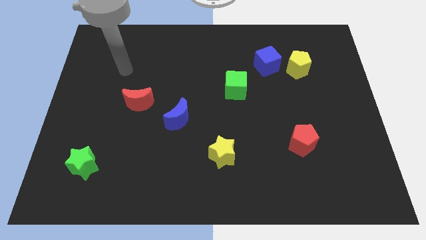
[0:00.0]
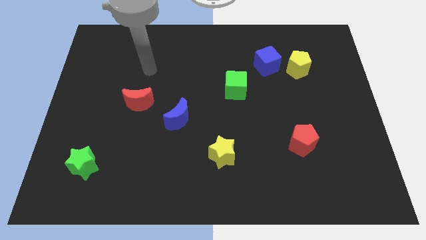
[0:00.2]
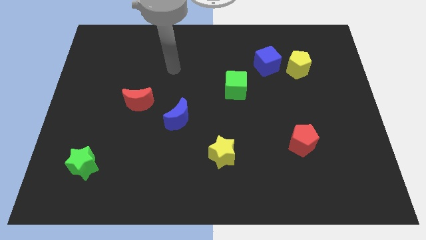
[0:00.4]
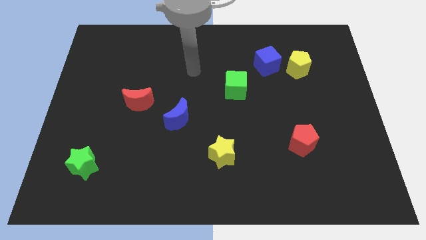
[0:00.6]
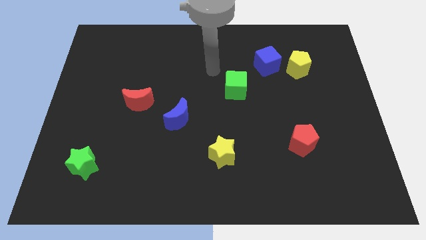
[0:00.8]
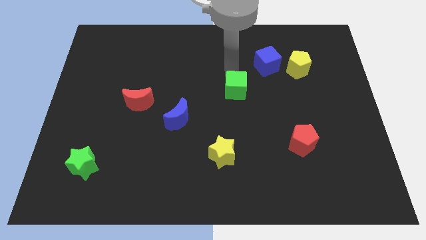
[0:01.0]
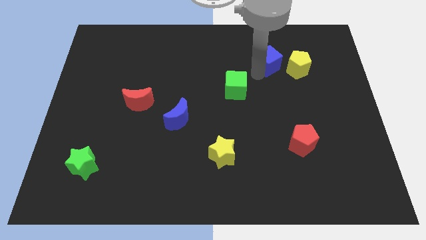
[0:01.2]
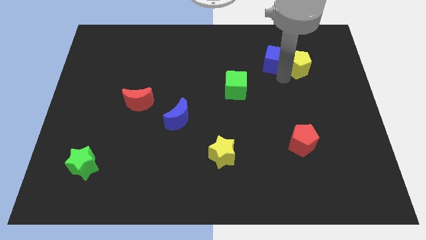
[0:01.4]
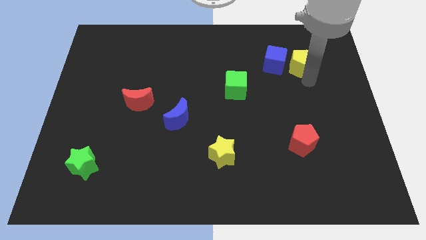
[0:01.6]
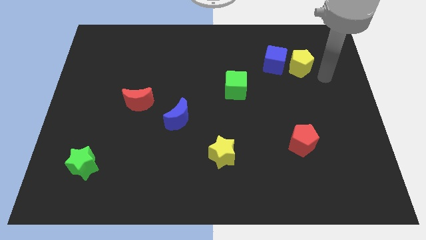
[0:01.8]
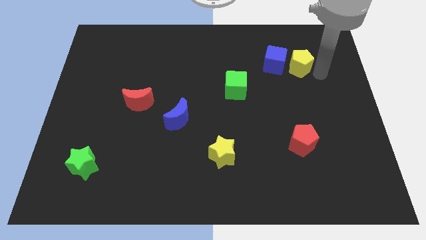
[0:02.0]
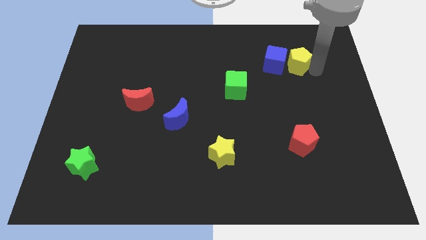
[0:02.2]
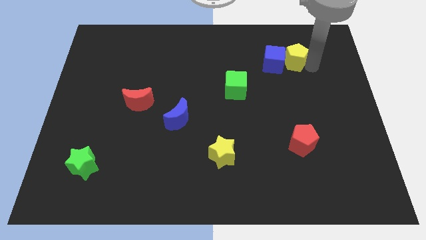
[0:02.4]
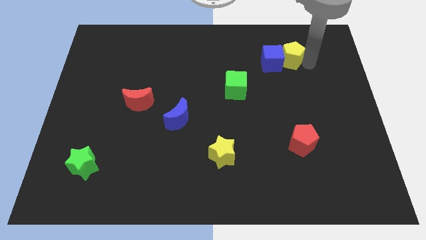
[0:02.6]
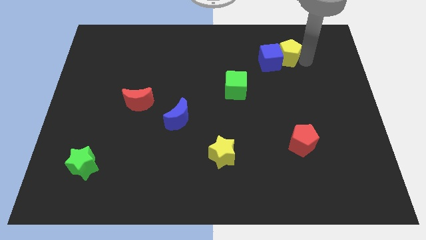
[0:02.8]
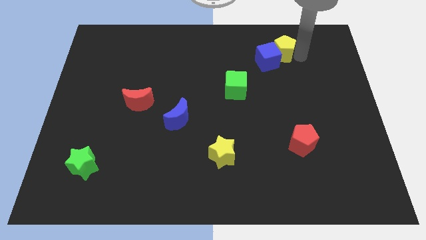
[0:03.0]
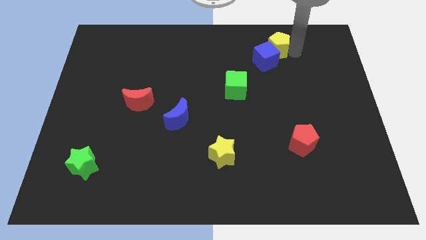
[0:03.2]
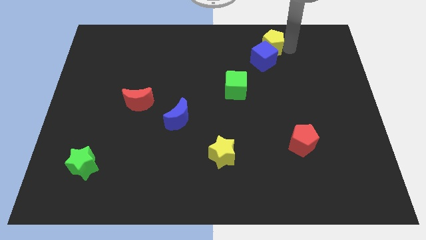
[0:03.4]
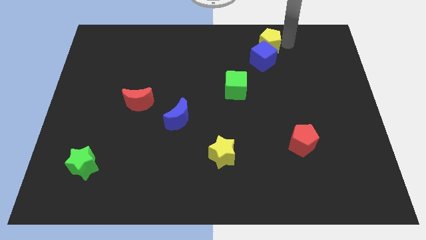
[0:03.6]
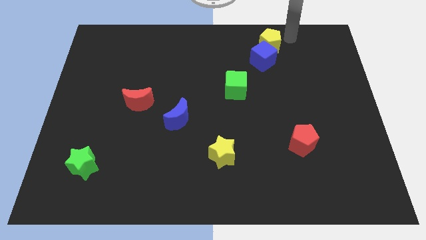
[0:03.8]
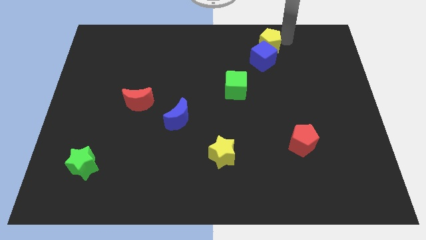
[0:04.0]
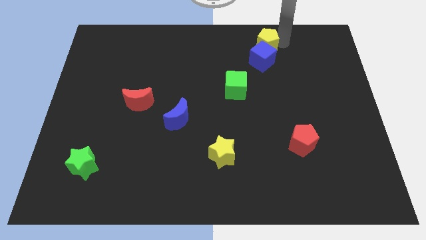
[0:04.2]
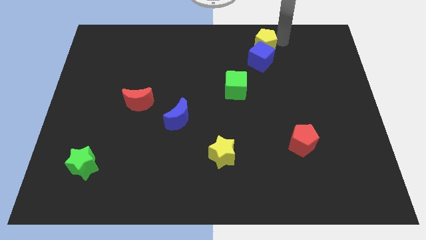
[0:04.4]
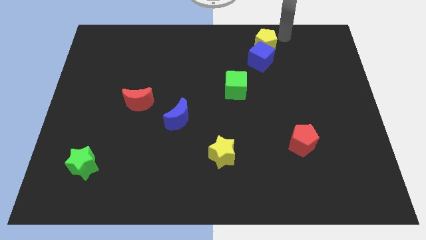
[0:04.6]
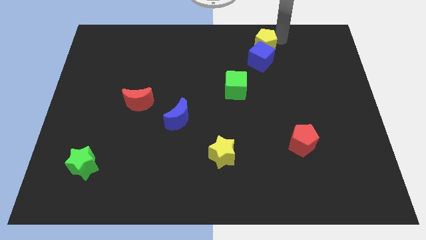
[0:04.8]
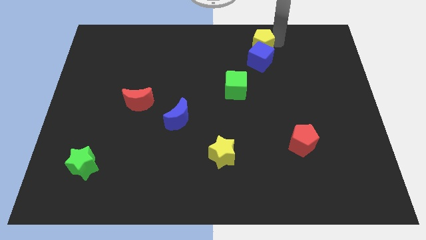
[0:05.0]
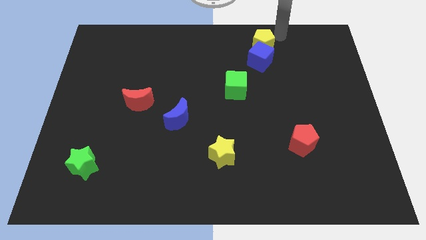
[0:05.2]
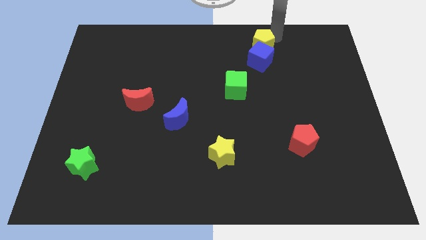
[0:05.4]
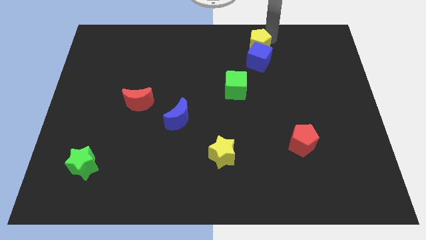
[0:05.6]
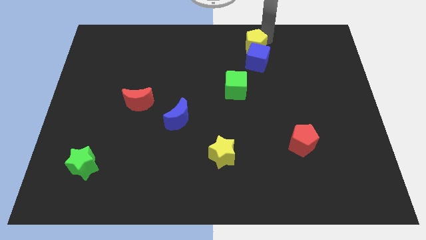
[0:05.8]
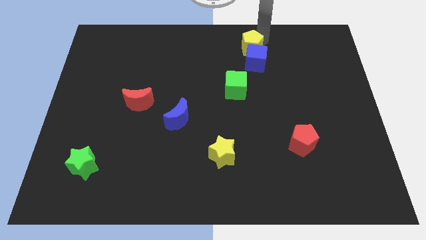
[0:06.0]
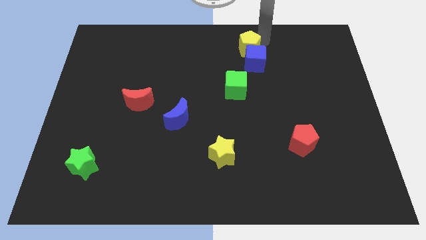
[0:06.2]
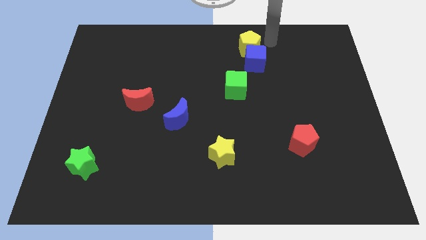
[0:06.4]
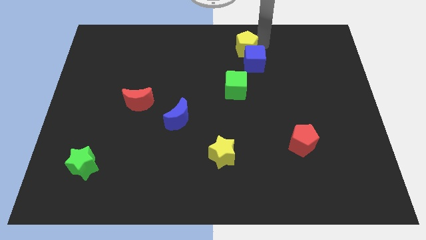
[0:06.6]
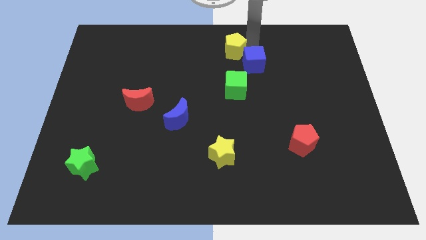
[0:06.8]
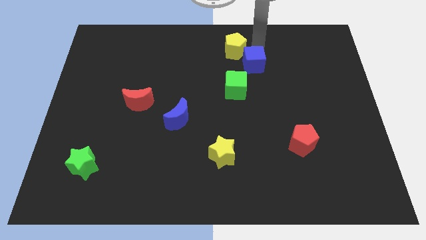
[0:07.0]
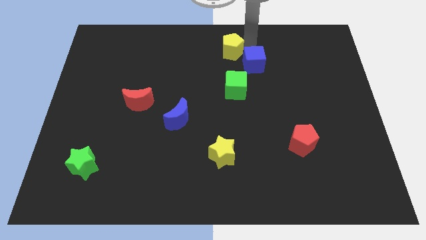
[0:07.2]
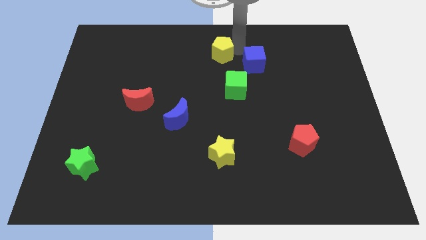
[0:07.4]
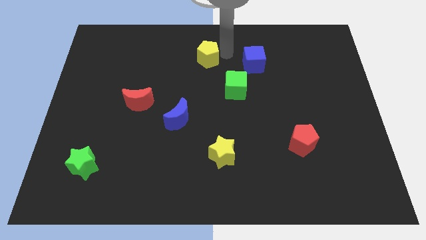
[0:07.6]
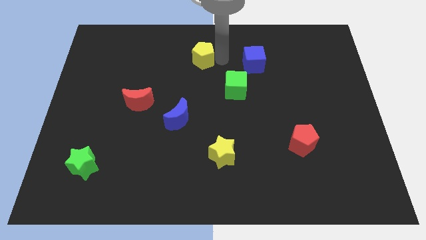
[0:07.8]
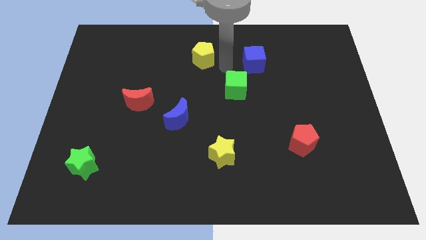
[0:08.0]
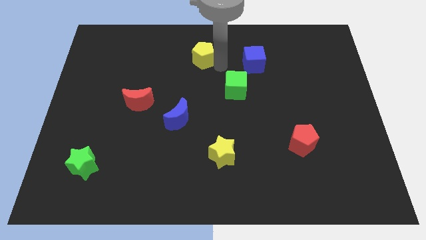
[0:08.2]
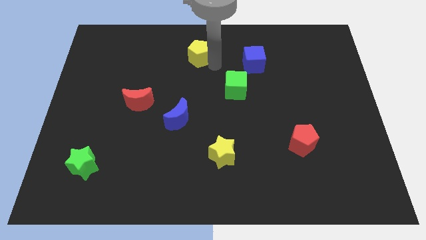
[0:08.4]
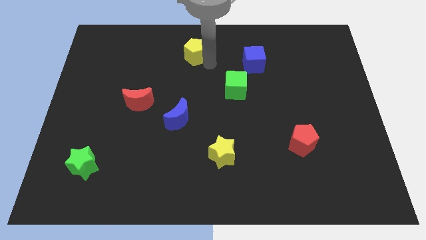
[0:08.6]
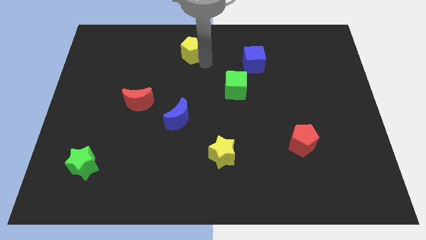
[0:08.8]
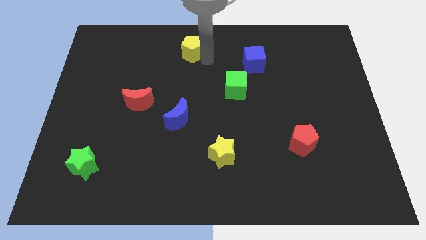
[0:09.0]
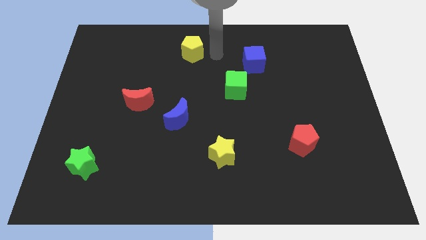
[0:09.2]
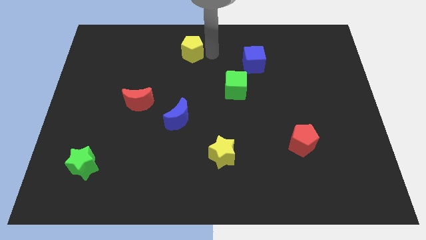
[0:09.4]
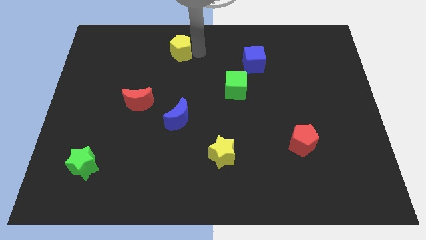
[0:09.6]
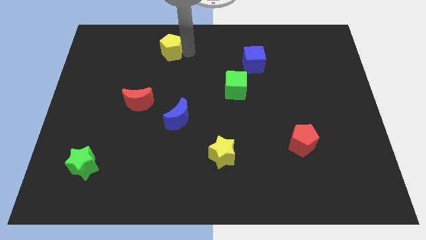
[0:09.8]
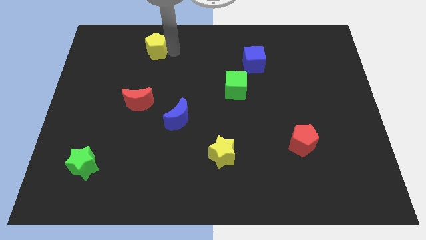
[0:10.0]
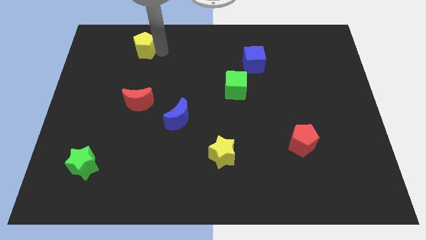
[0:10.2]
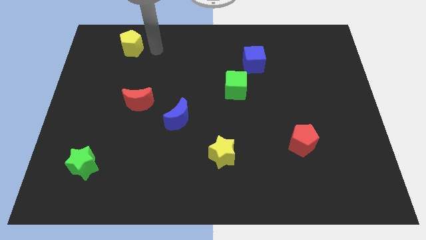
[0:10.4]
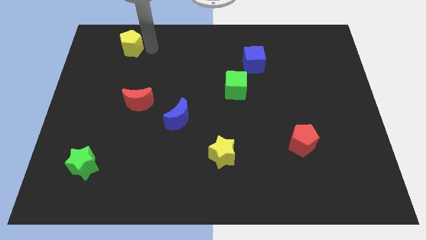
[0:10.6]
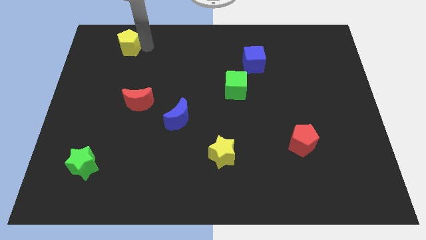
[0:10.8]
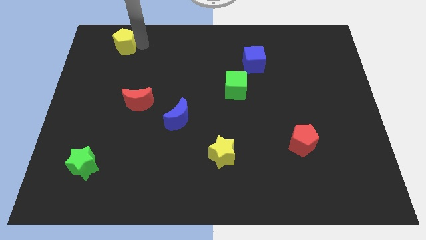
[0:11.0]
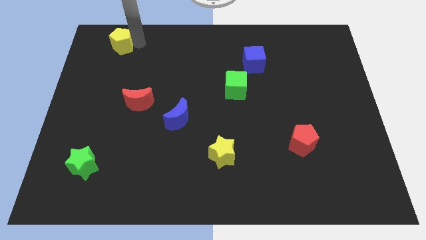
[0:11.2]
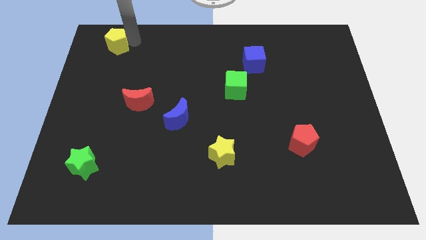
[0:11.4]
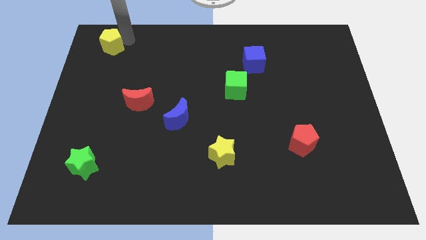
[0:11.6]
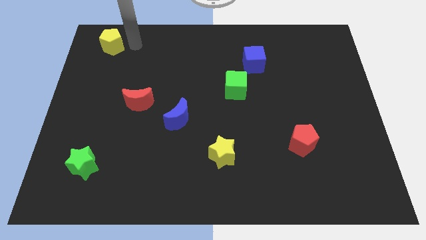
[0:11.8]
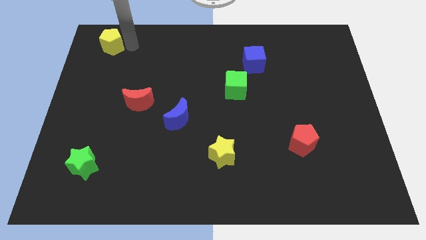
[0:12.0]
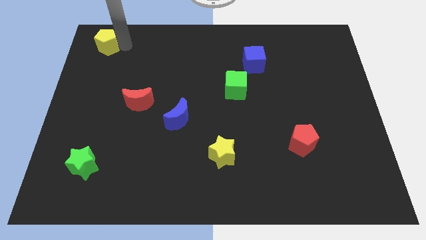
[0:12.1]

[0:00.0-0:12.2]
put the yellow pentagon to the top left
